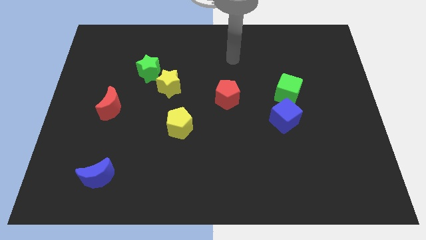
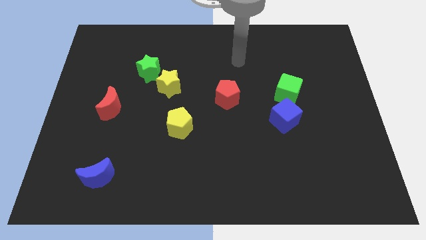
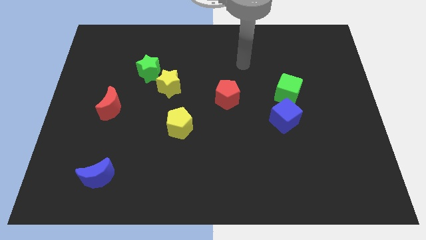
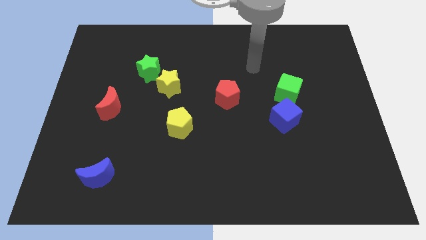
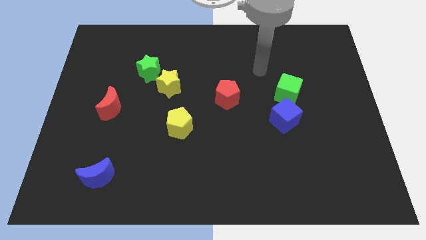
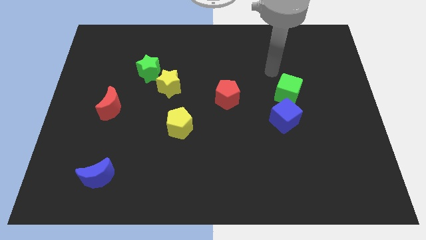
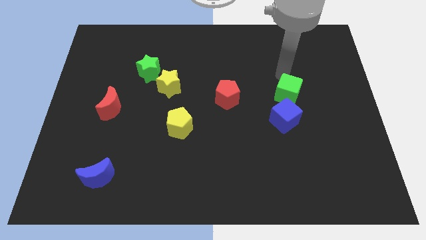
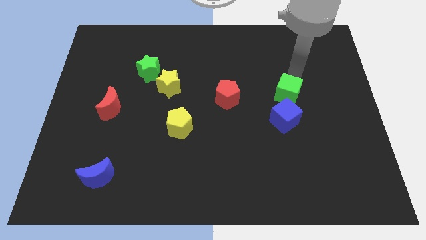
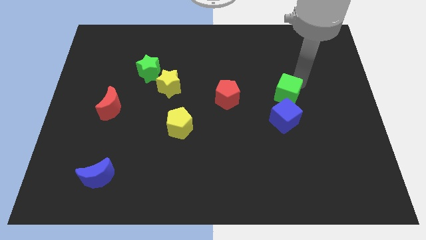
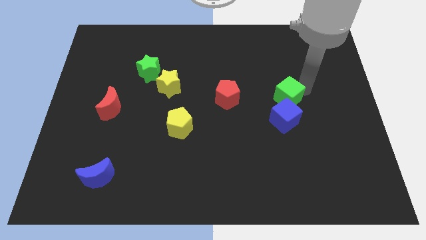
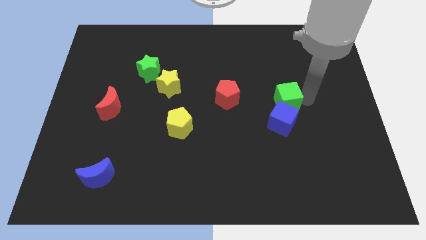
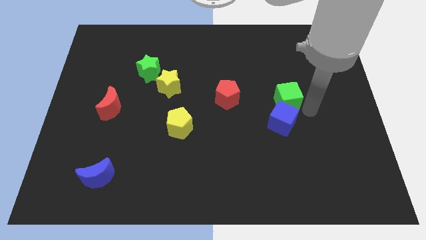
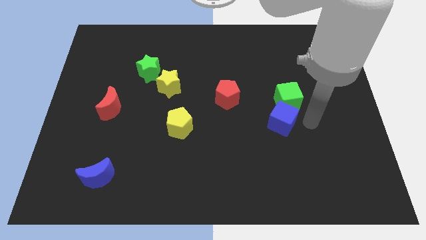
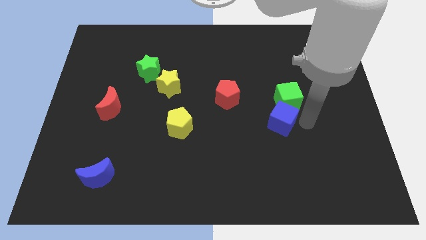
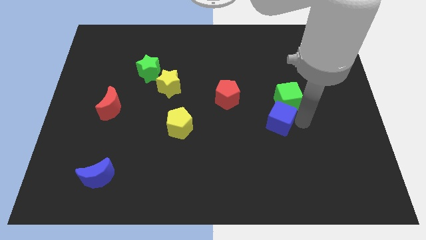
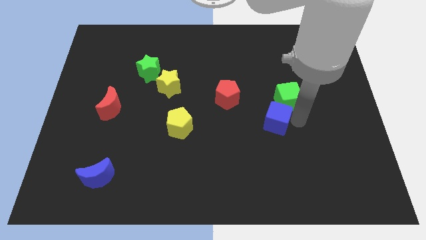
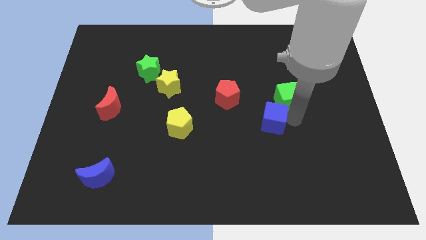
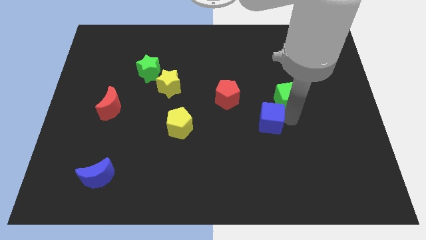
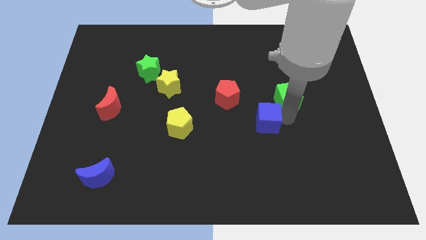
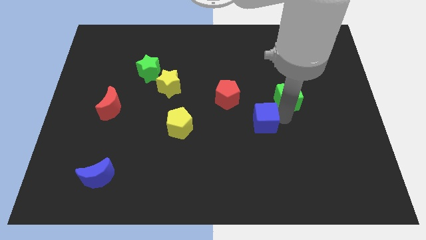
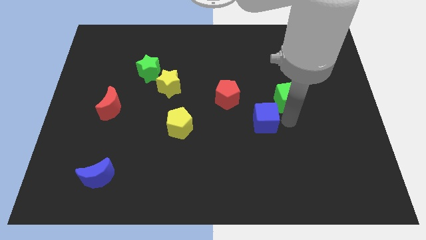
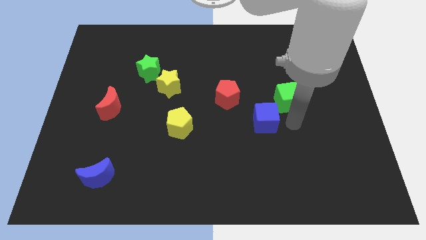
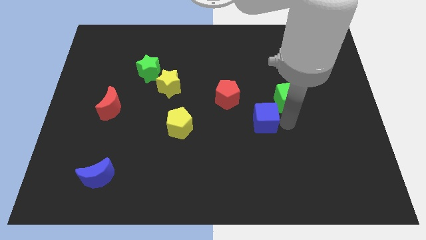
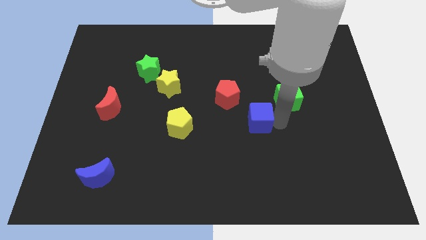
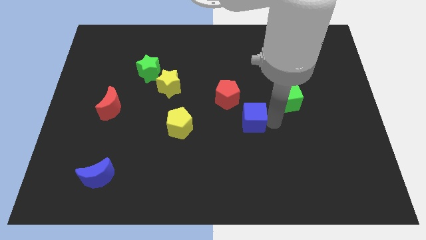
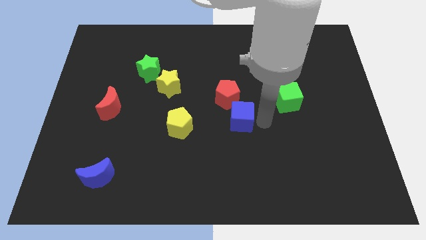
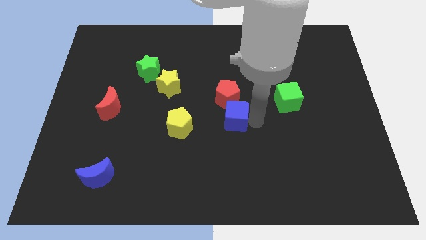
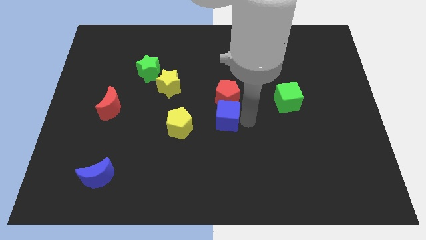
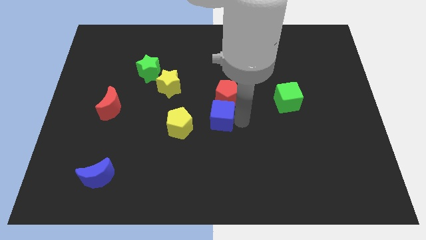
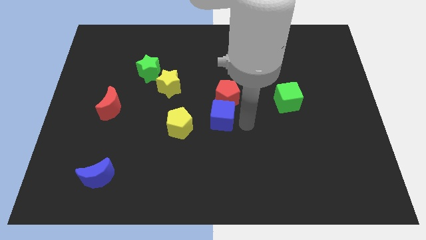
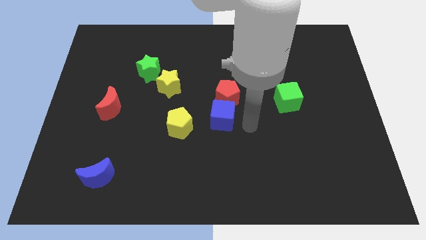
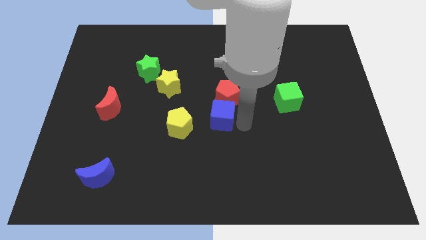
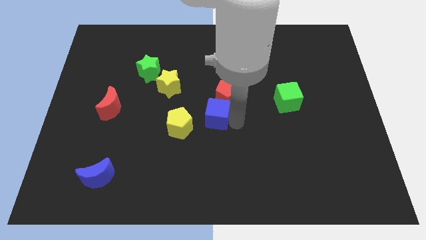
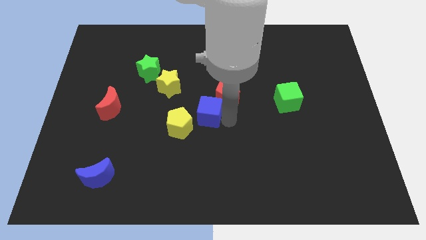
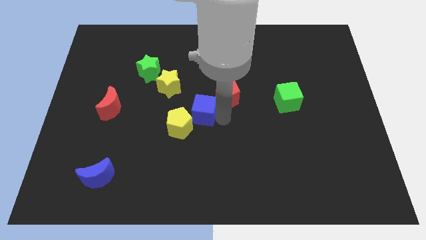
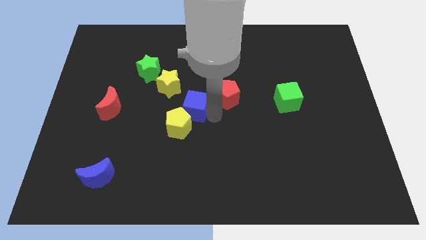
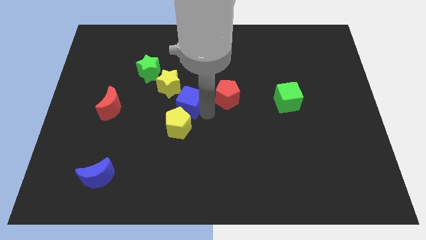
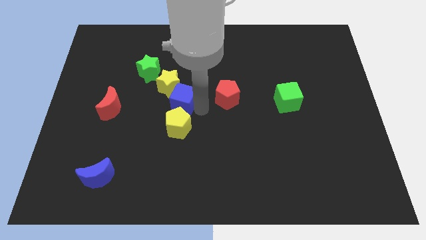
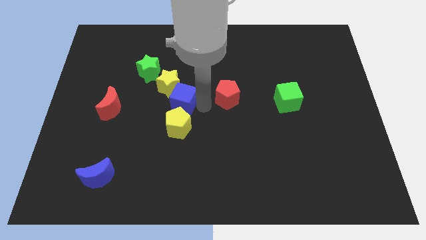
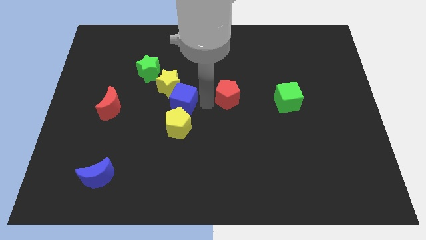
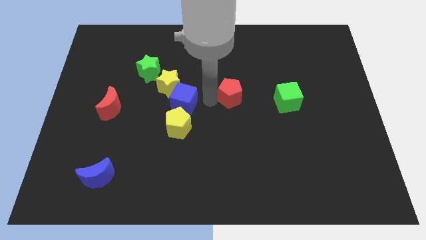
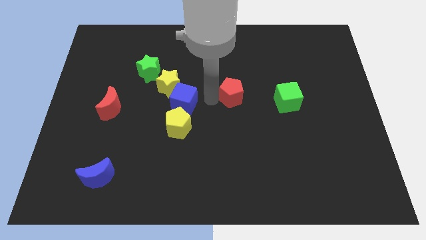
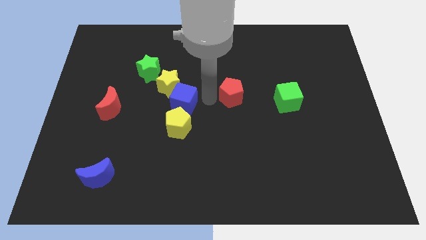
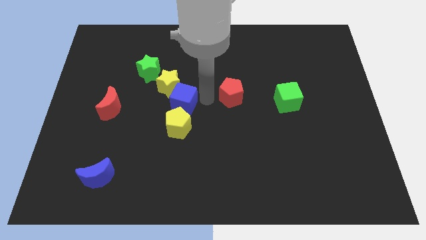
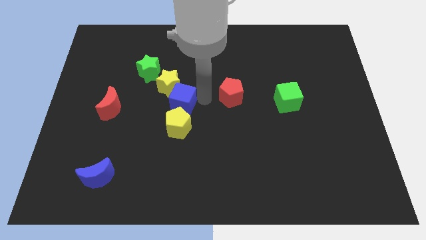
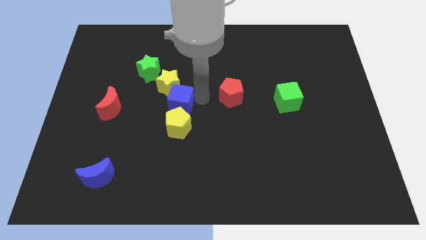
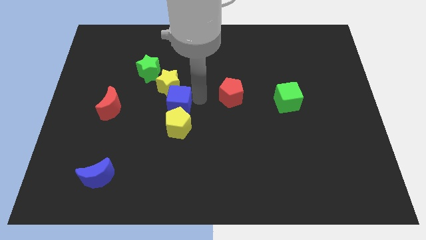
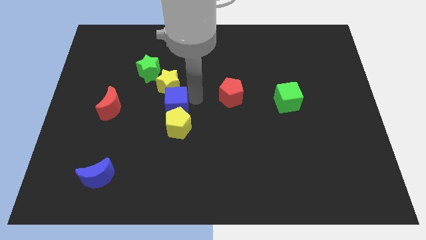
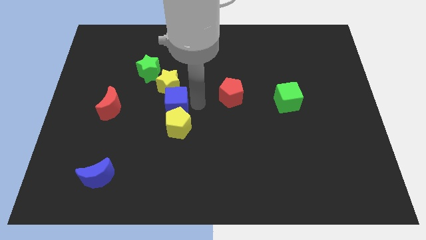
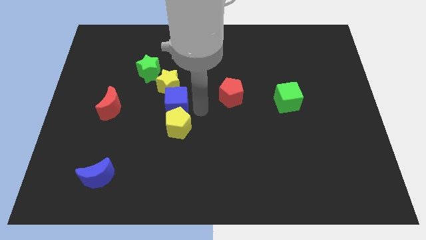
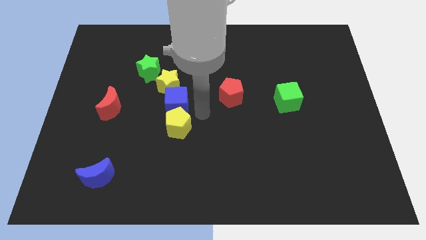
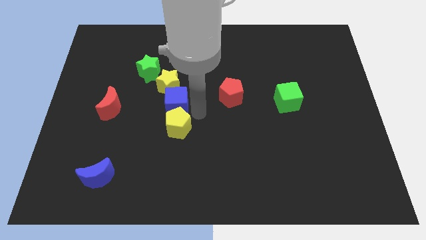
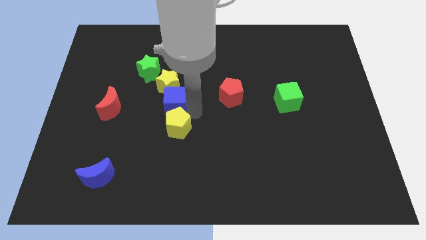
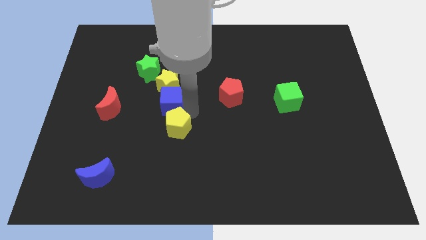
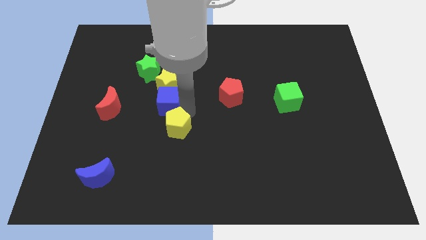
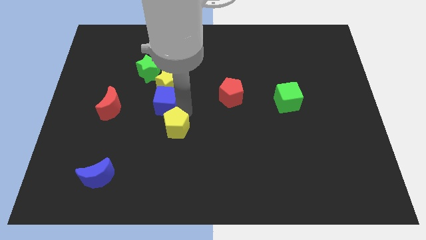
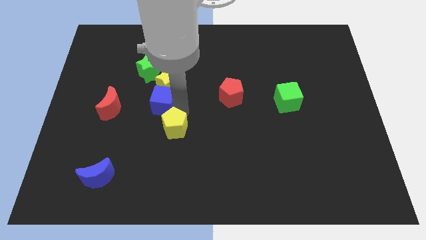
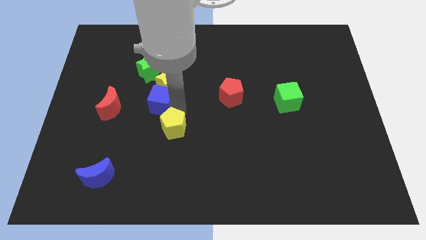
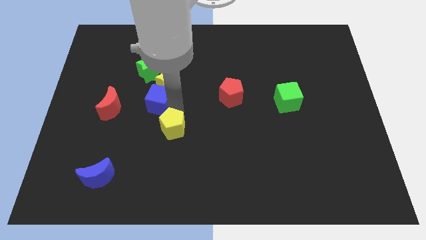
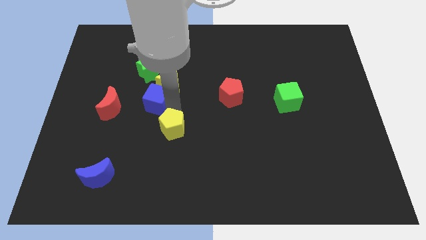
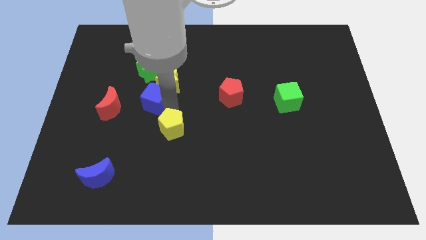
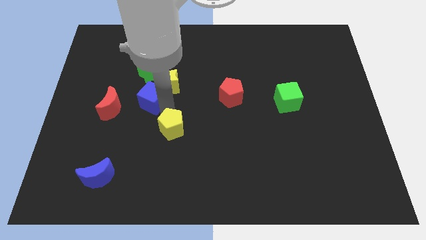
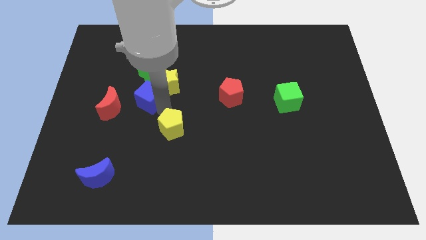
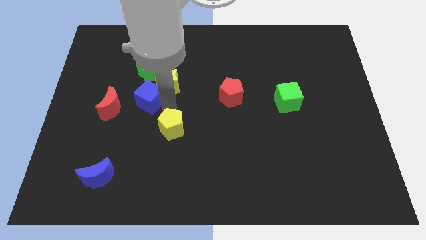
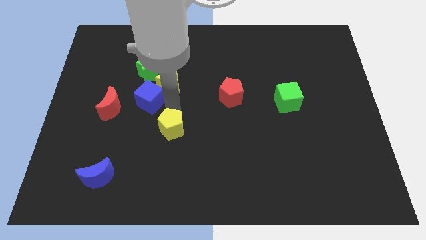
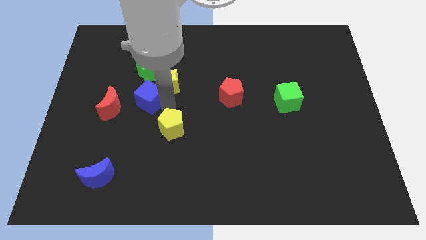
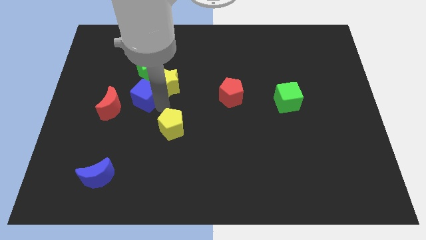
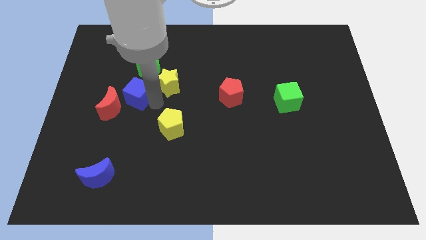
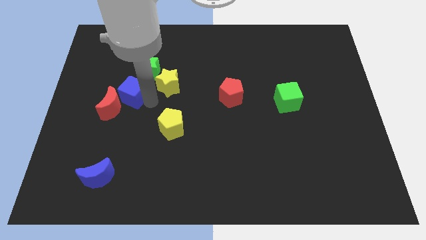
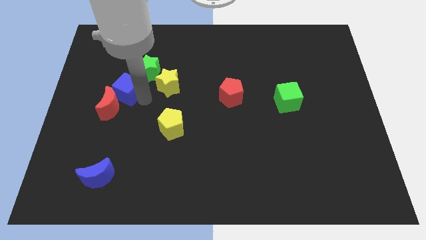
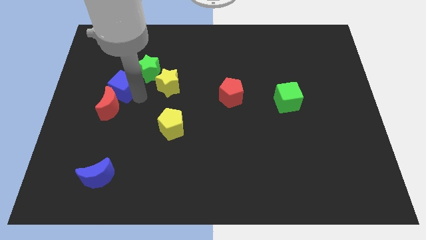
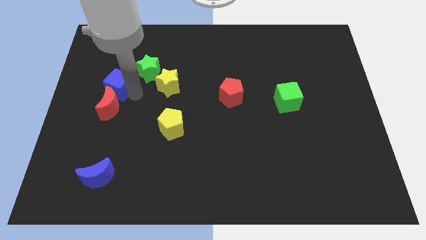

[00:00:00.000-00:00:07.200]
put the blue cube left of the green star
